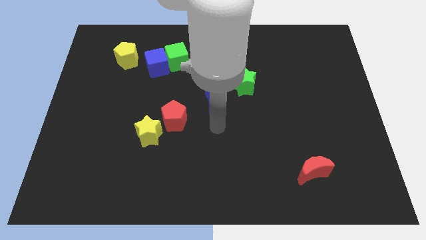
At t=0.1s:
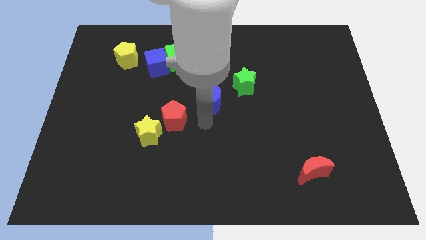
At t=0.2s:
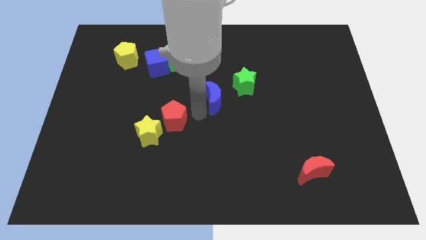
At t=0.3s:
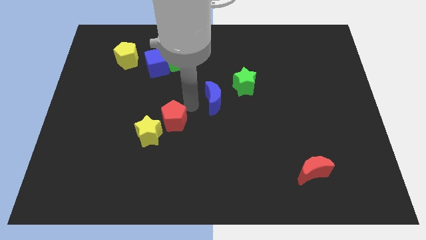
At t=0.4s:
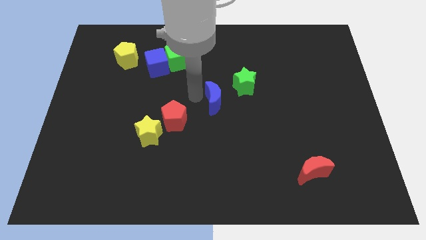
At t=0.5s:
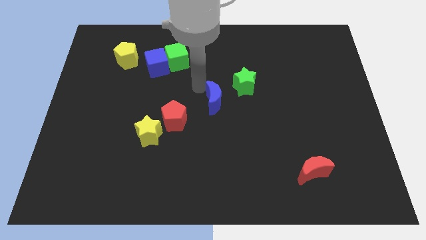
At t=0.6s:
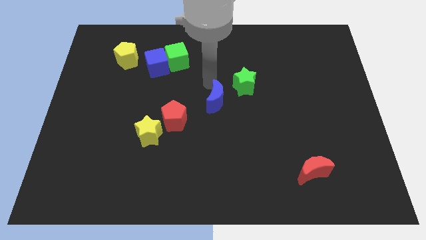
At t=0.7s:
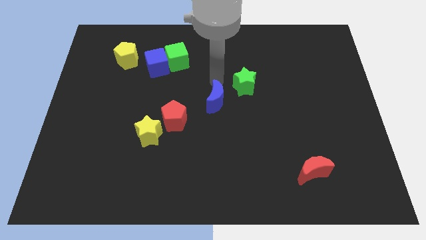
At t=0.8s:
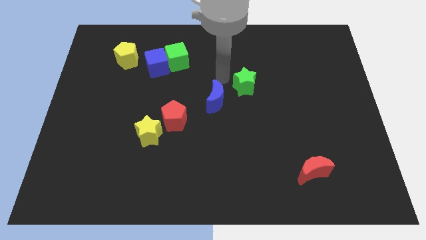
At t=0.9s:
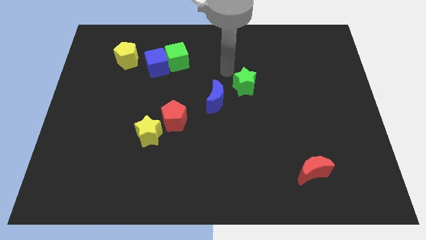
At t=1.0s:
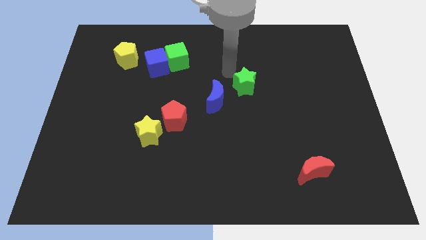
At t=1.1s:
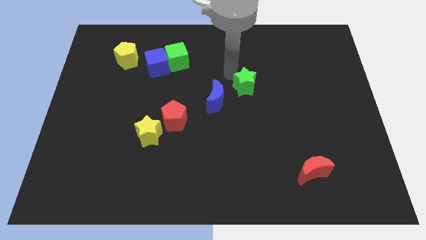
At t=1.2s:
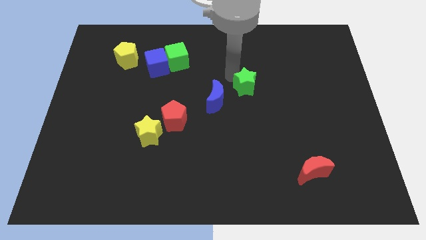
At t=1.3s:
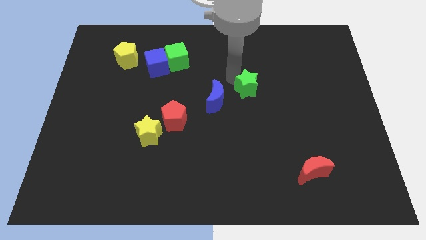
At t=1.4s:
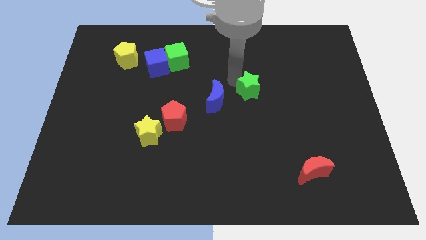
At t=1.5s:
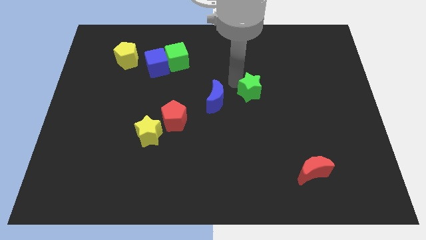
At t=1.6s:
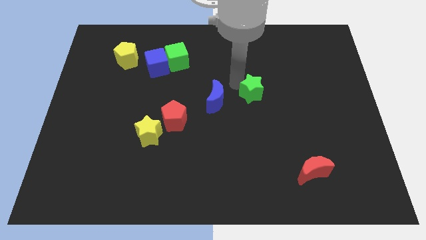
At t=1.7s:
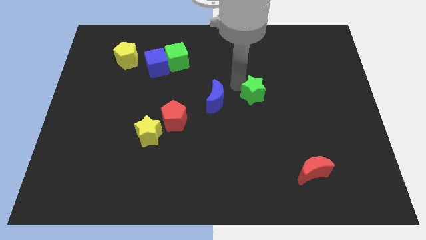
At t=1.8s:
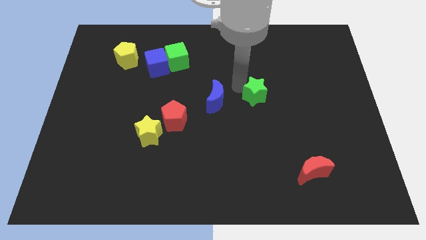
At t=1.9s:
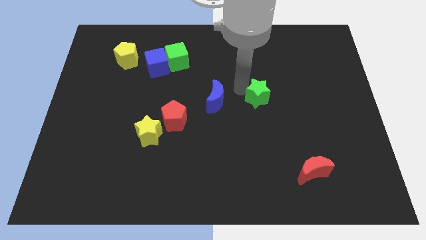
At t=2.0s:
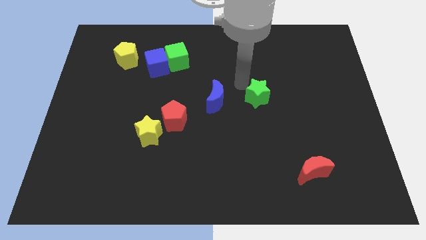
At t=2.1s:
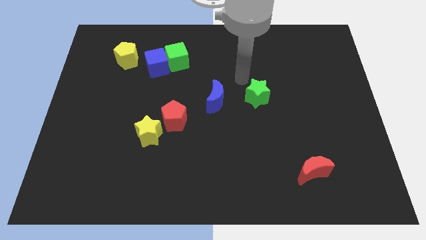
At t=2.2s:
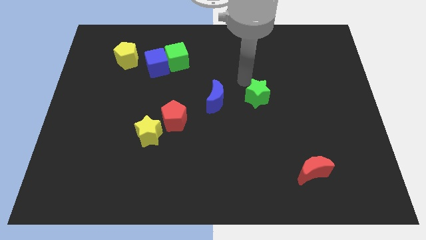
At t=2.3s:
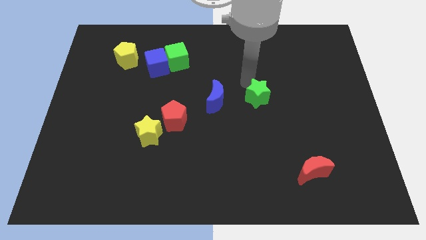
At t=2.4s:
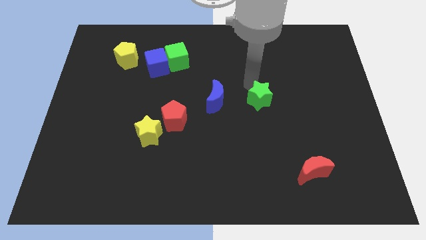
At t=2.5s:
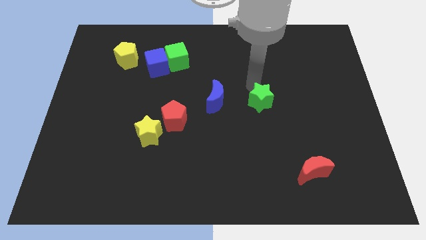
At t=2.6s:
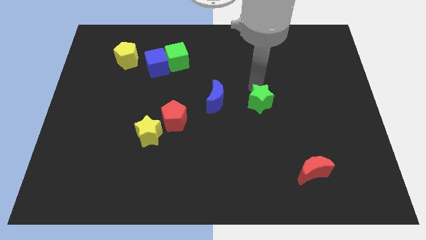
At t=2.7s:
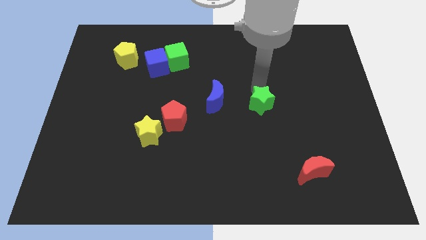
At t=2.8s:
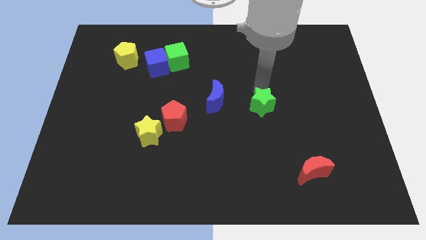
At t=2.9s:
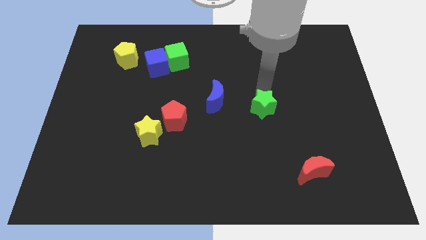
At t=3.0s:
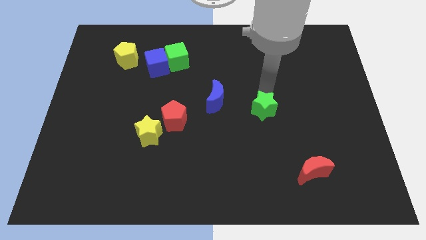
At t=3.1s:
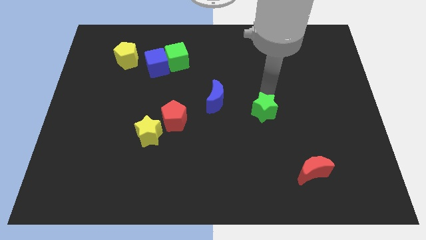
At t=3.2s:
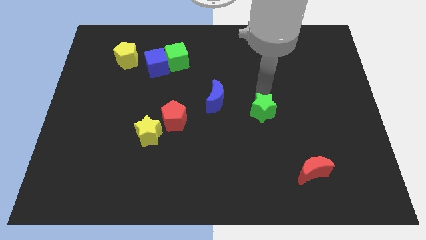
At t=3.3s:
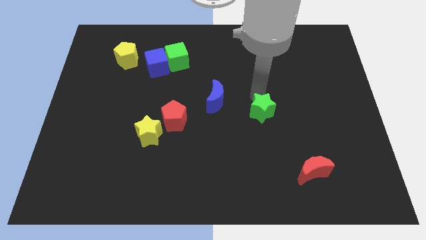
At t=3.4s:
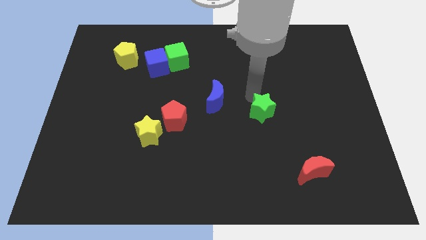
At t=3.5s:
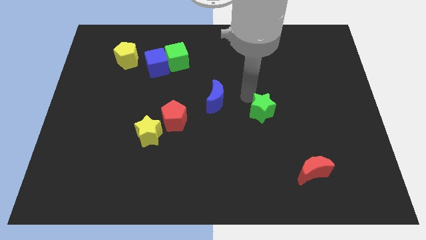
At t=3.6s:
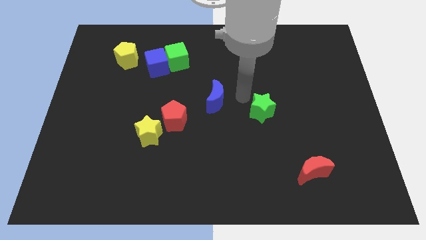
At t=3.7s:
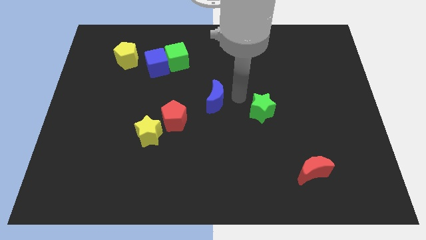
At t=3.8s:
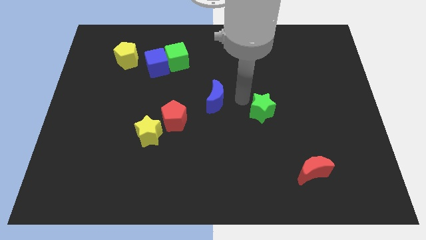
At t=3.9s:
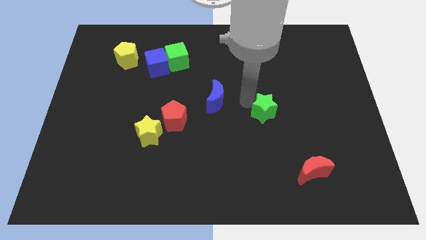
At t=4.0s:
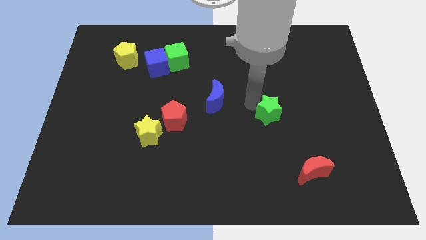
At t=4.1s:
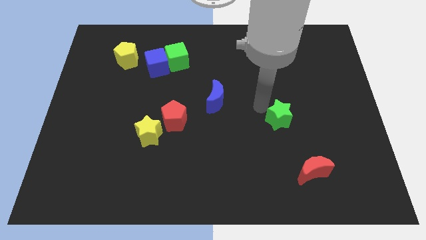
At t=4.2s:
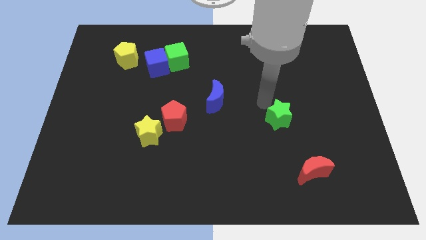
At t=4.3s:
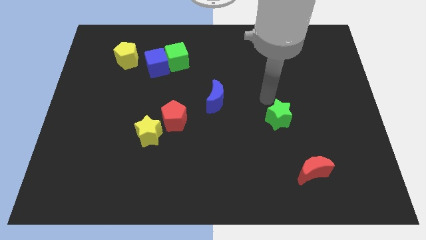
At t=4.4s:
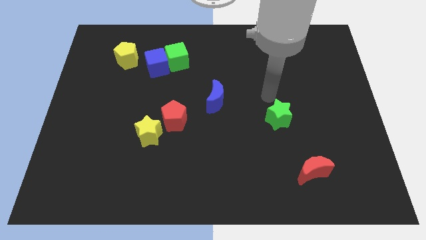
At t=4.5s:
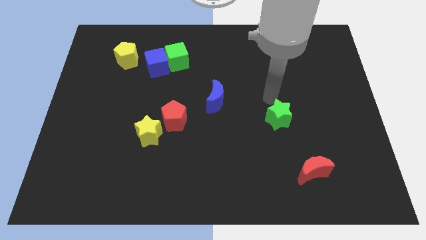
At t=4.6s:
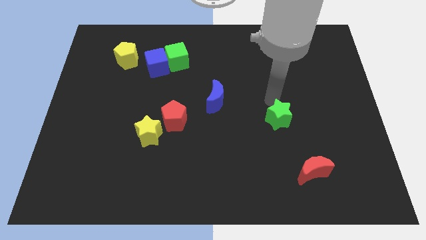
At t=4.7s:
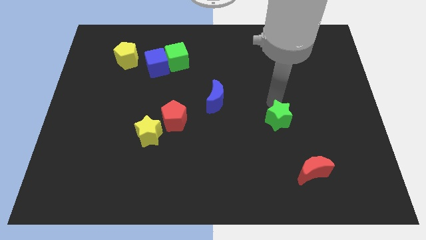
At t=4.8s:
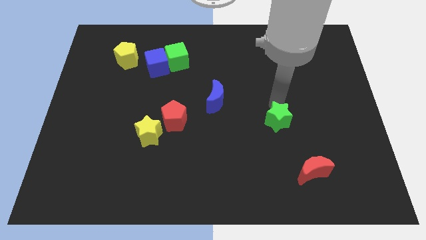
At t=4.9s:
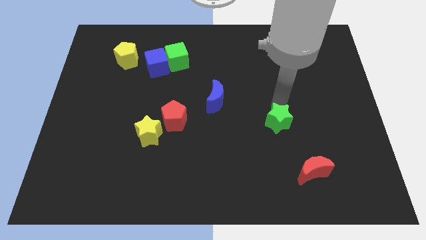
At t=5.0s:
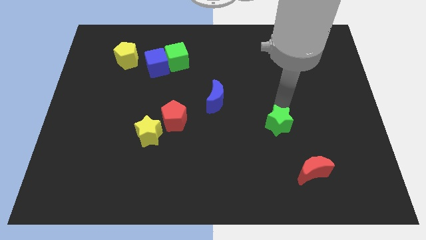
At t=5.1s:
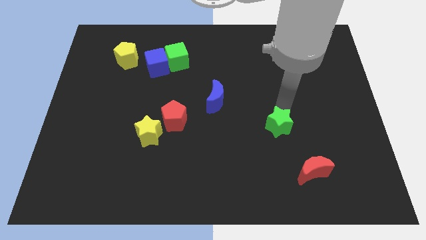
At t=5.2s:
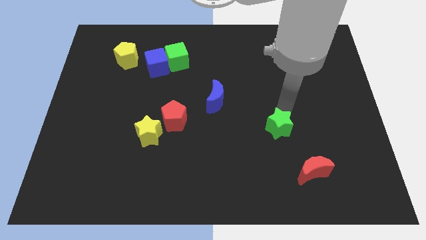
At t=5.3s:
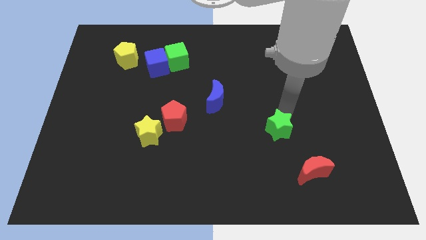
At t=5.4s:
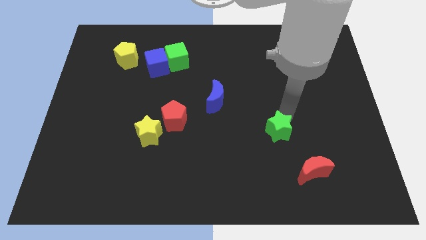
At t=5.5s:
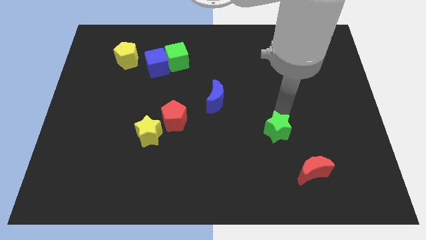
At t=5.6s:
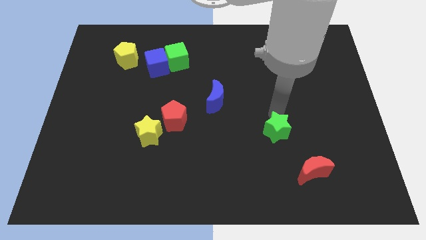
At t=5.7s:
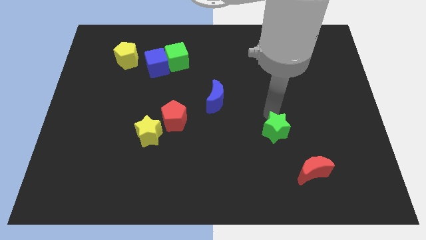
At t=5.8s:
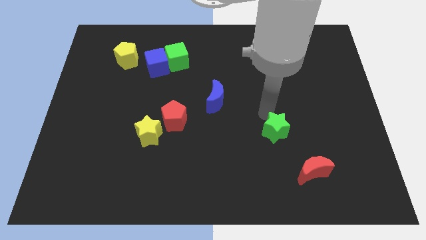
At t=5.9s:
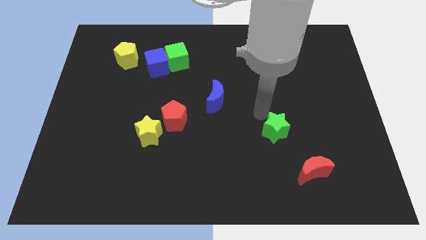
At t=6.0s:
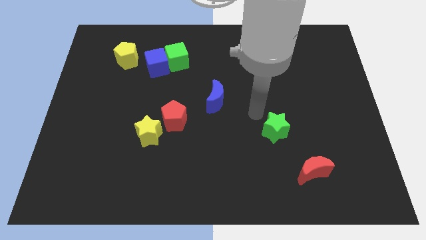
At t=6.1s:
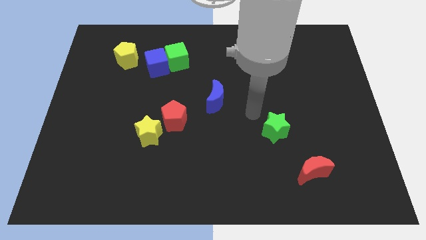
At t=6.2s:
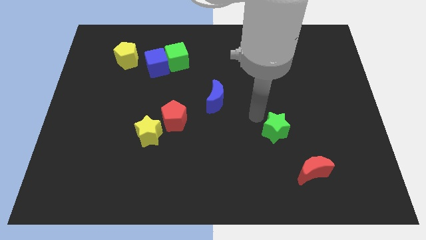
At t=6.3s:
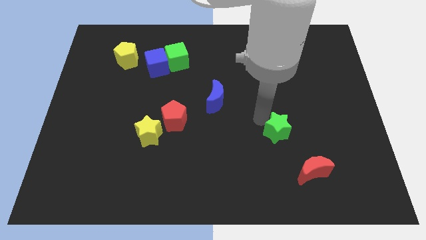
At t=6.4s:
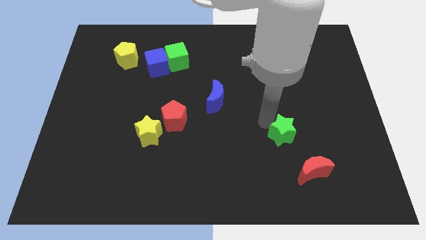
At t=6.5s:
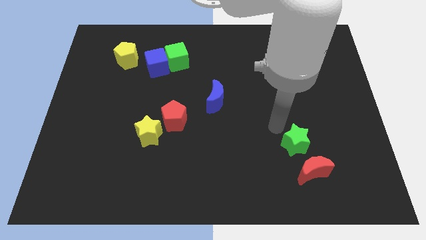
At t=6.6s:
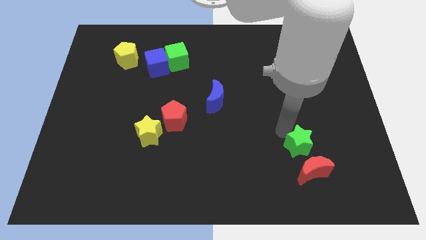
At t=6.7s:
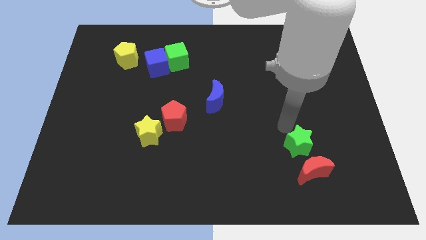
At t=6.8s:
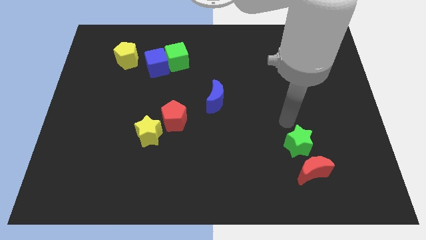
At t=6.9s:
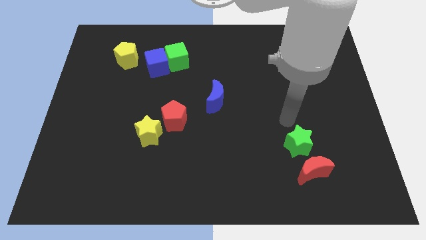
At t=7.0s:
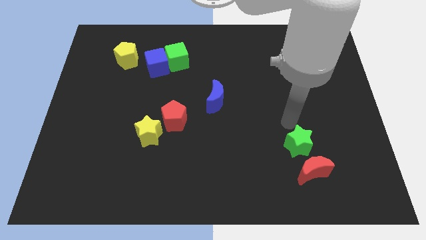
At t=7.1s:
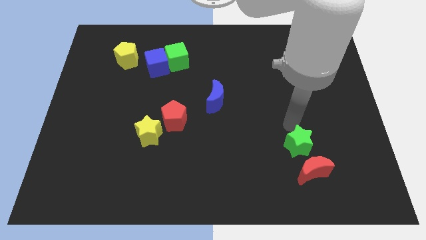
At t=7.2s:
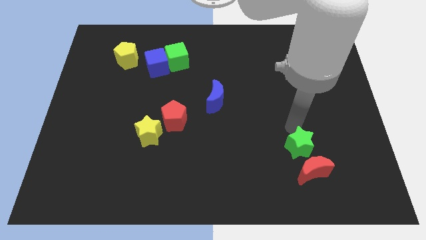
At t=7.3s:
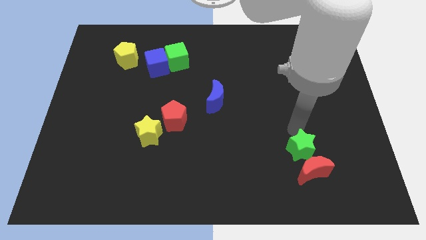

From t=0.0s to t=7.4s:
slide the green star towards the red moon
